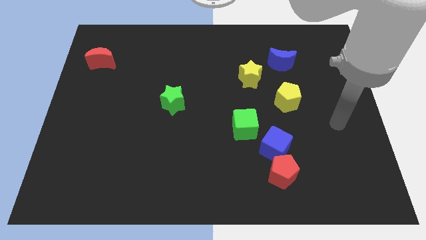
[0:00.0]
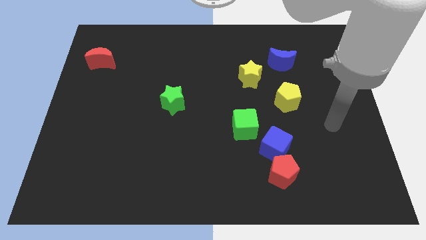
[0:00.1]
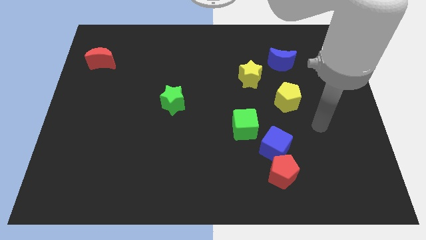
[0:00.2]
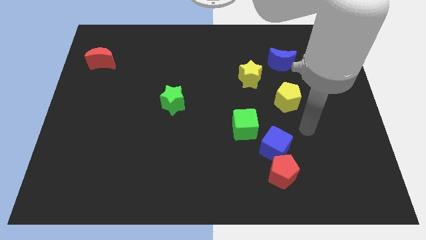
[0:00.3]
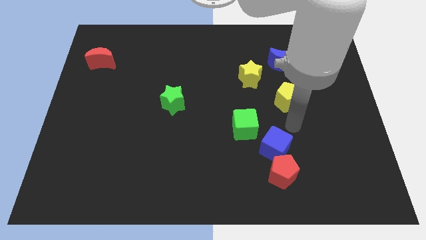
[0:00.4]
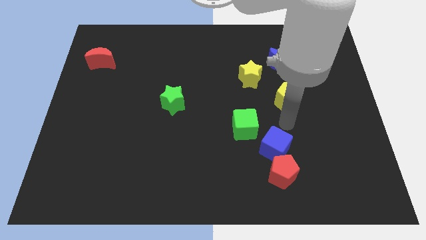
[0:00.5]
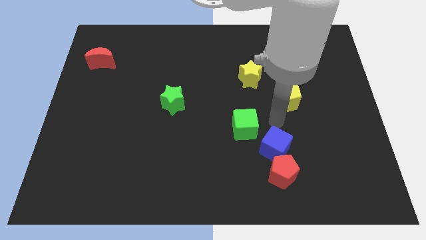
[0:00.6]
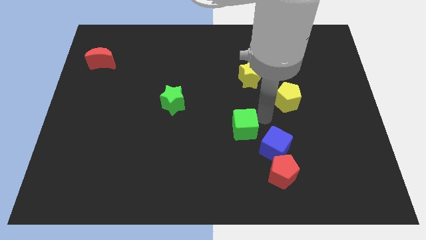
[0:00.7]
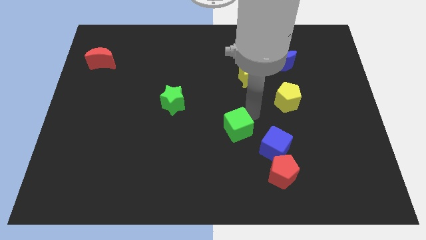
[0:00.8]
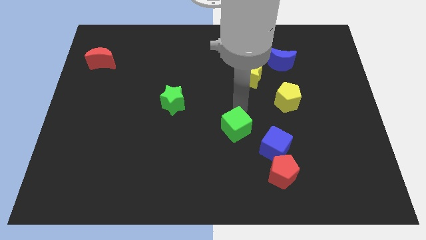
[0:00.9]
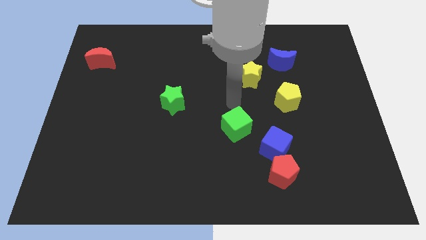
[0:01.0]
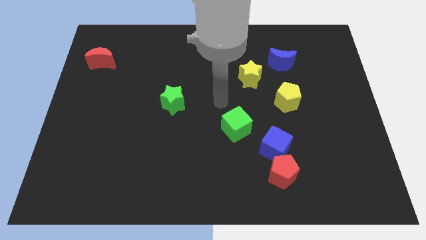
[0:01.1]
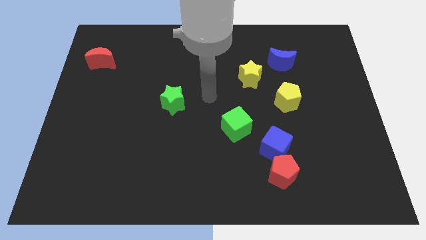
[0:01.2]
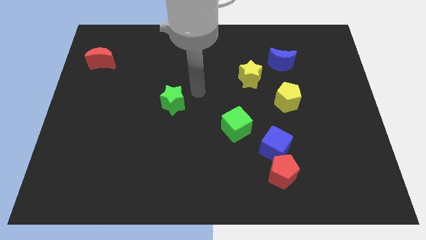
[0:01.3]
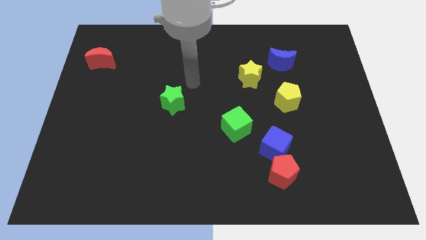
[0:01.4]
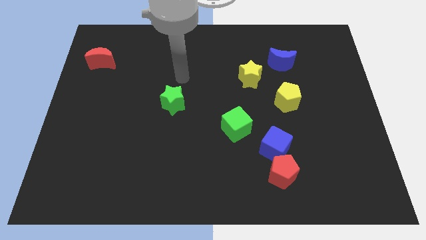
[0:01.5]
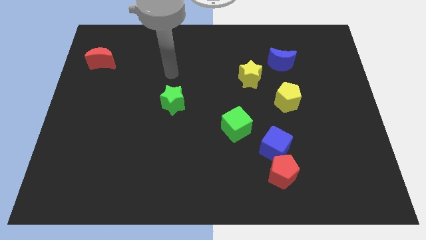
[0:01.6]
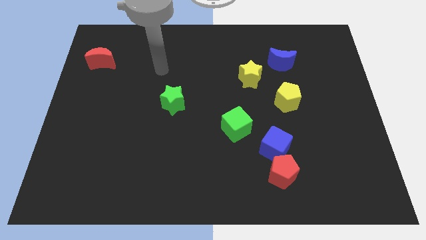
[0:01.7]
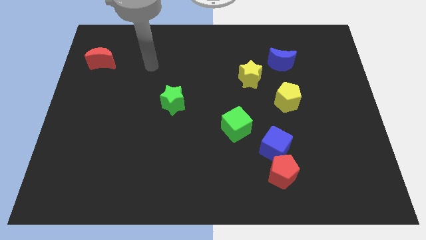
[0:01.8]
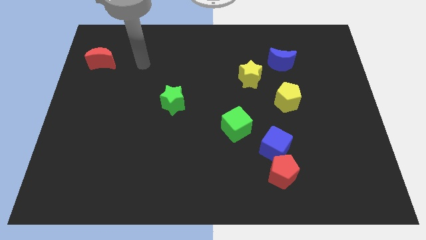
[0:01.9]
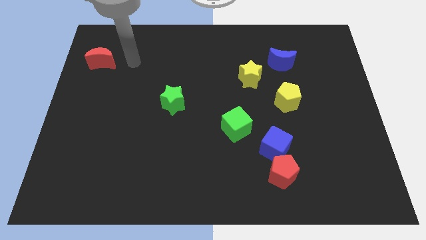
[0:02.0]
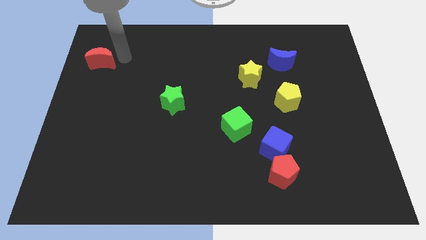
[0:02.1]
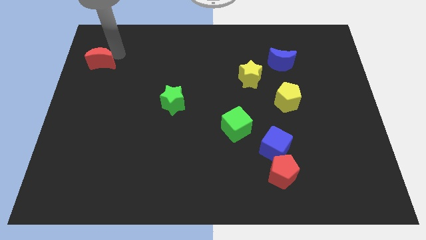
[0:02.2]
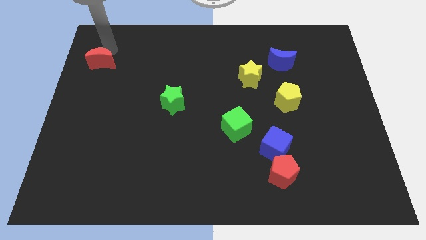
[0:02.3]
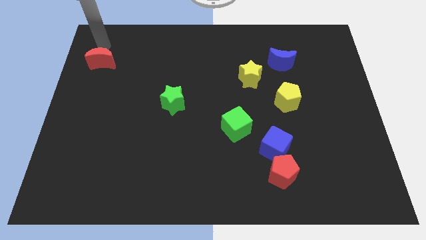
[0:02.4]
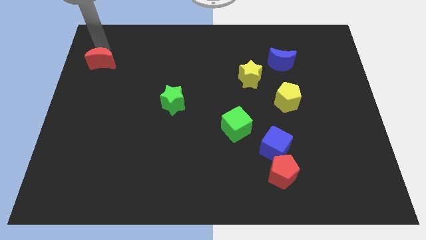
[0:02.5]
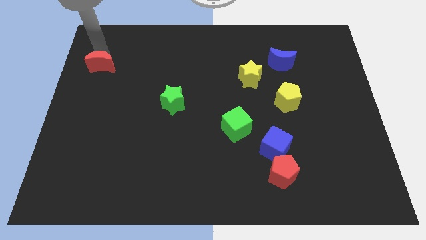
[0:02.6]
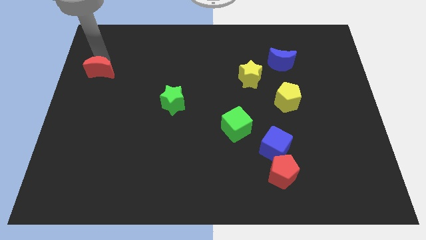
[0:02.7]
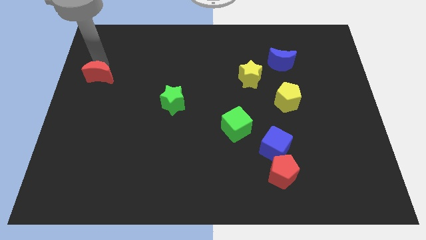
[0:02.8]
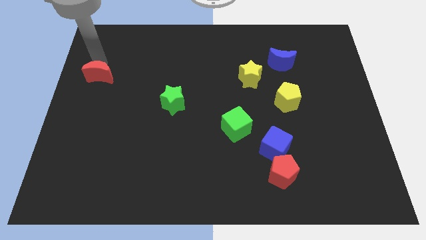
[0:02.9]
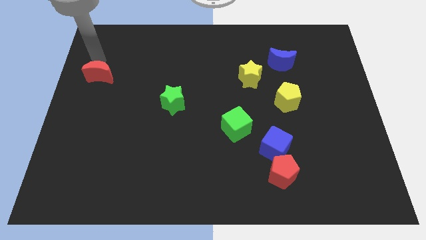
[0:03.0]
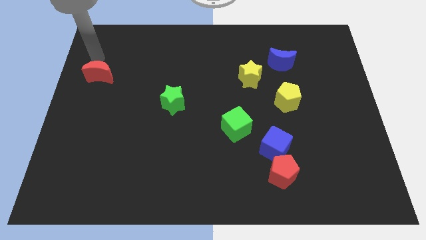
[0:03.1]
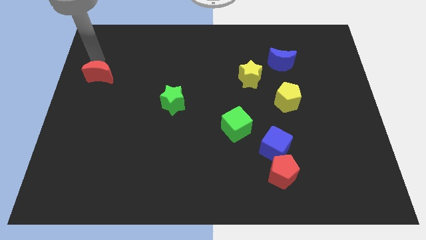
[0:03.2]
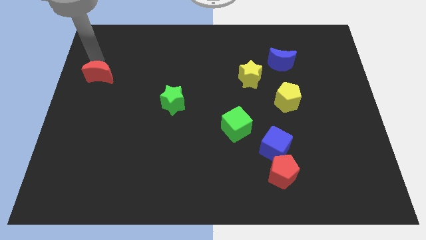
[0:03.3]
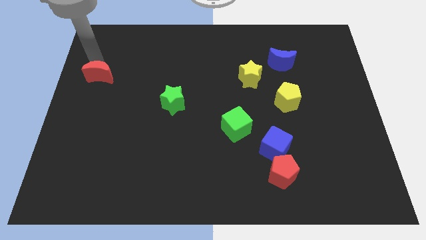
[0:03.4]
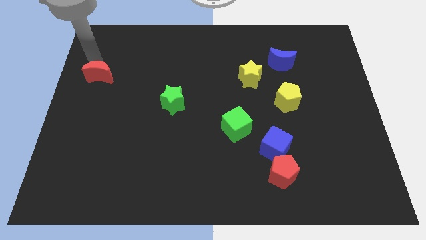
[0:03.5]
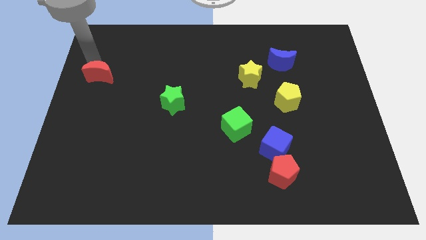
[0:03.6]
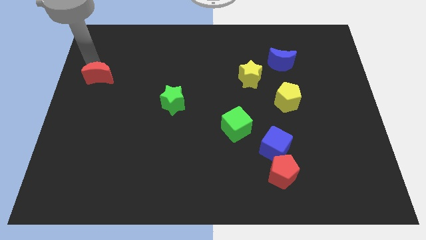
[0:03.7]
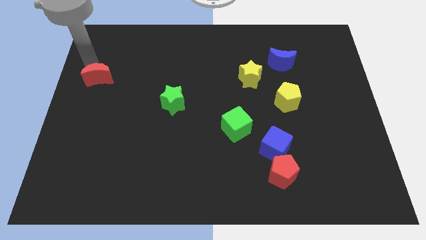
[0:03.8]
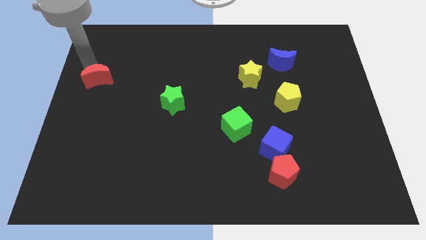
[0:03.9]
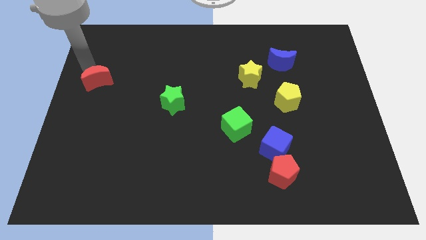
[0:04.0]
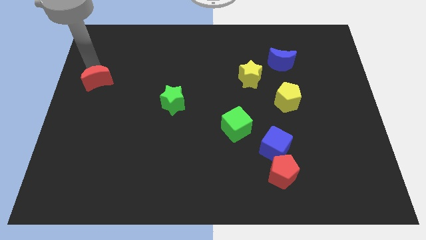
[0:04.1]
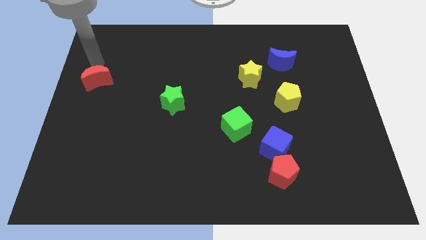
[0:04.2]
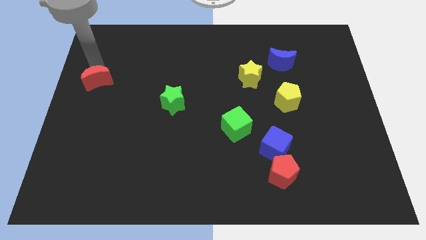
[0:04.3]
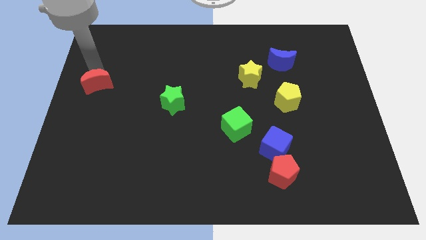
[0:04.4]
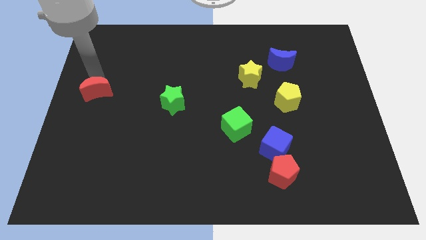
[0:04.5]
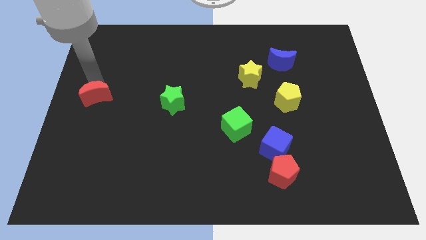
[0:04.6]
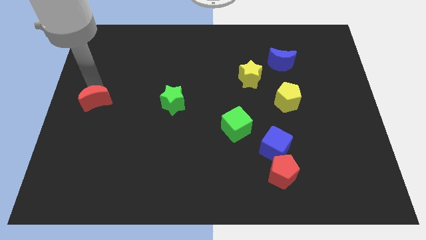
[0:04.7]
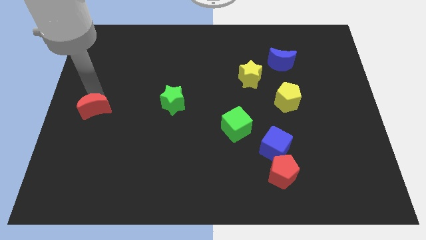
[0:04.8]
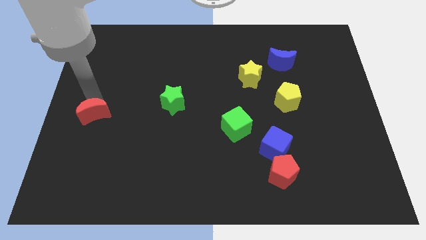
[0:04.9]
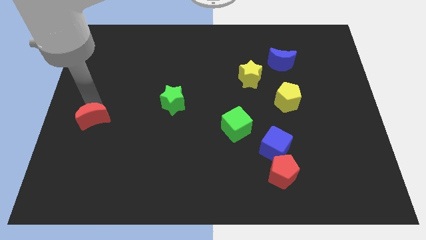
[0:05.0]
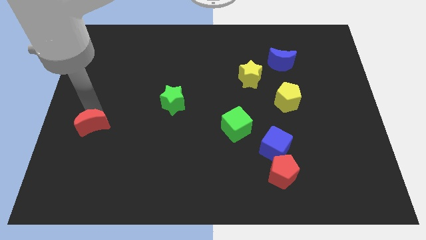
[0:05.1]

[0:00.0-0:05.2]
move the red moon down

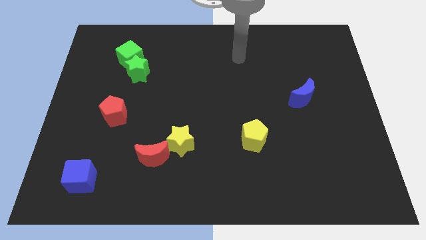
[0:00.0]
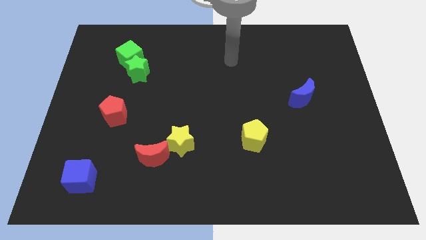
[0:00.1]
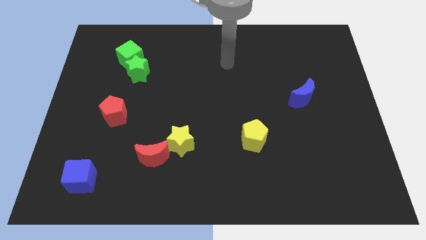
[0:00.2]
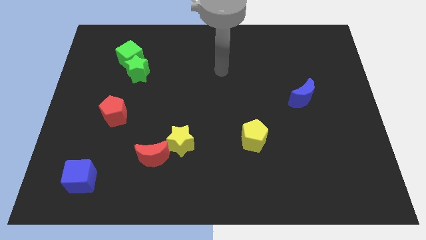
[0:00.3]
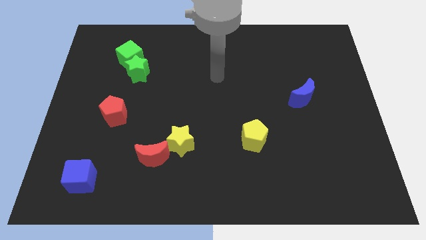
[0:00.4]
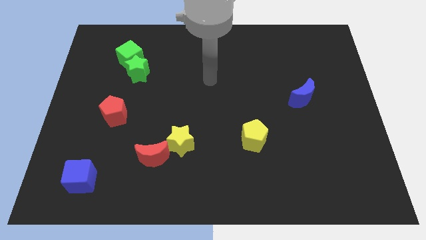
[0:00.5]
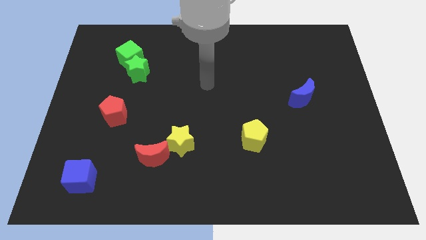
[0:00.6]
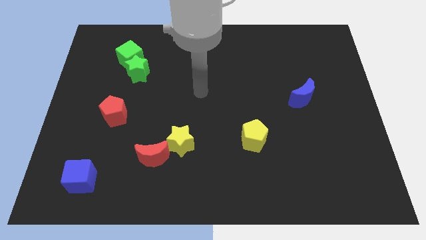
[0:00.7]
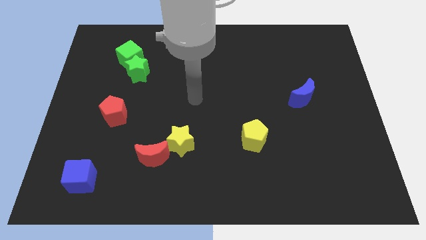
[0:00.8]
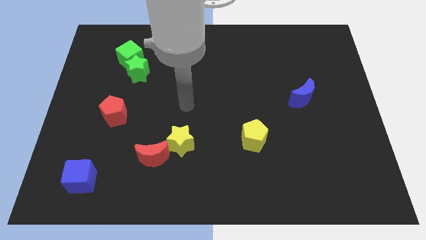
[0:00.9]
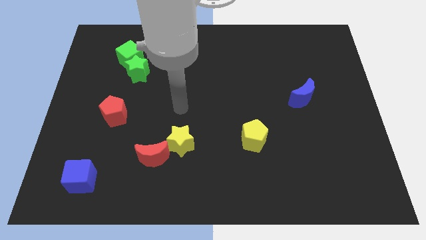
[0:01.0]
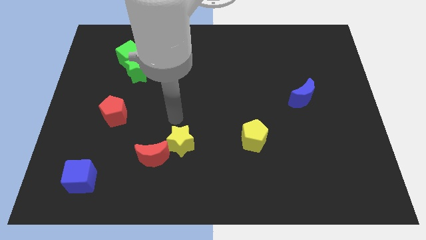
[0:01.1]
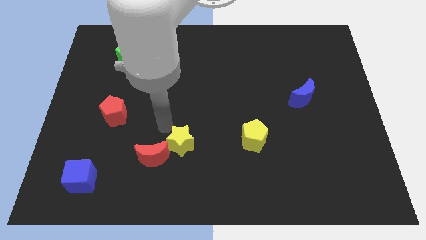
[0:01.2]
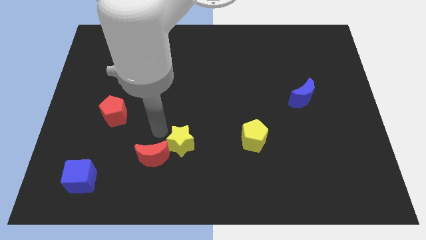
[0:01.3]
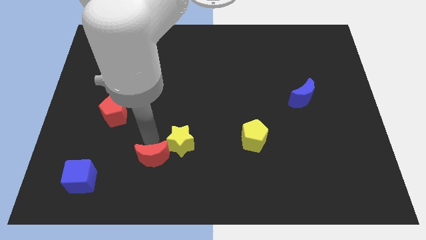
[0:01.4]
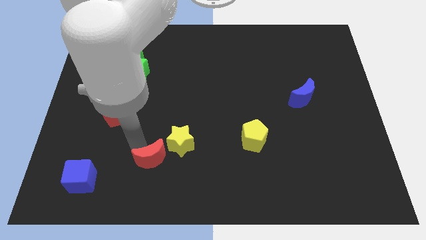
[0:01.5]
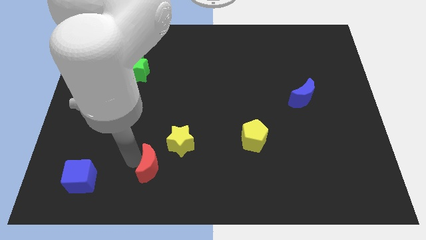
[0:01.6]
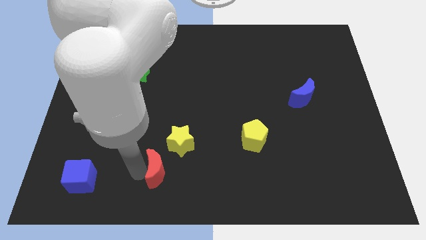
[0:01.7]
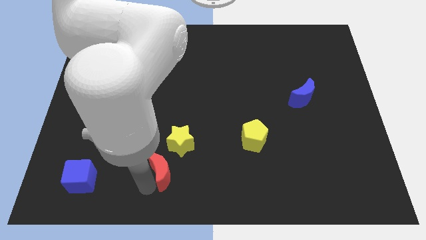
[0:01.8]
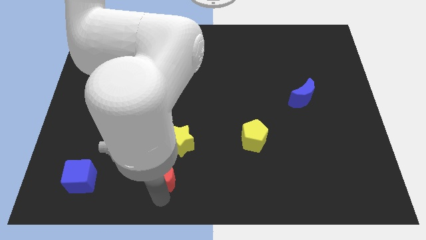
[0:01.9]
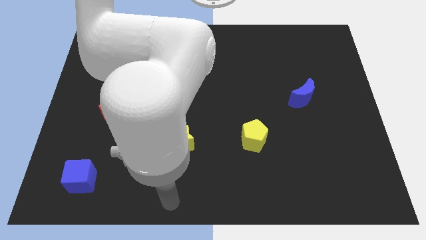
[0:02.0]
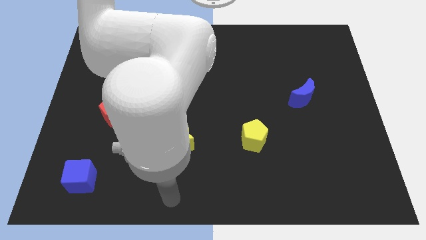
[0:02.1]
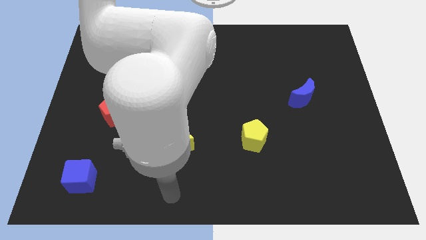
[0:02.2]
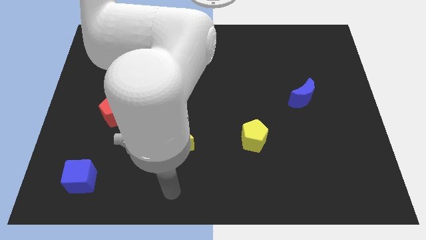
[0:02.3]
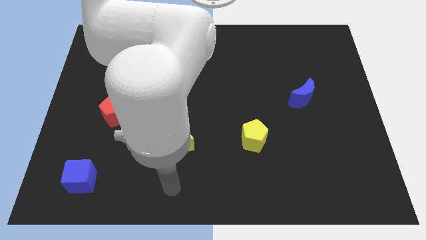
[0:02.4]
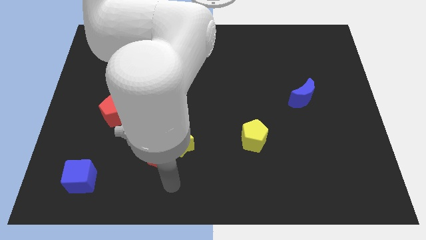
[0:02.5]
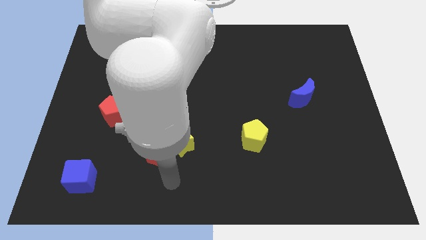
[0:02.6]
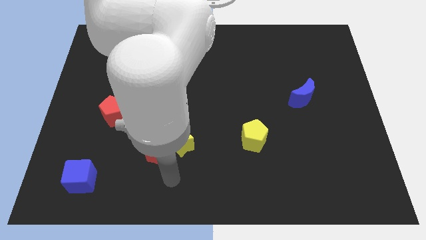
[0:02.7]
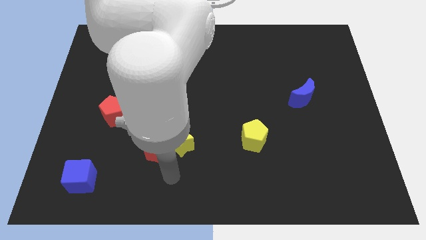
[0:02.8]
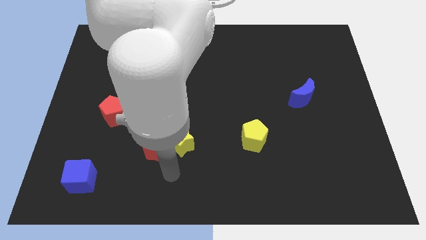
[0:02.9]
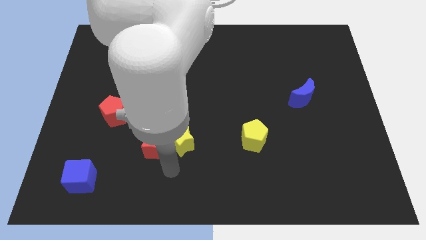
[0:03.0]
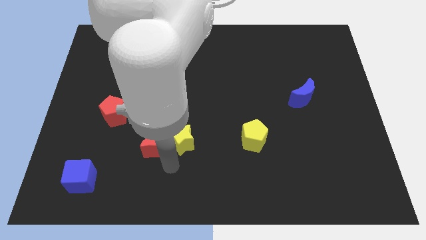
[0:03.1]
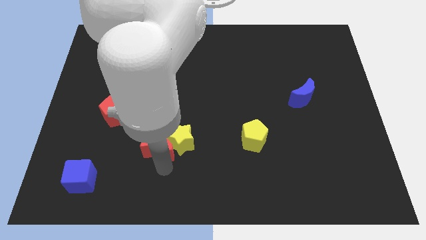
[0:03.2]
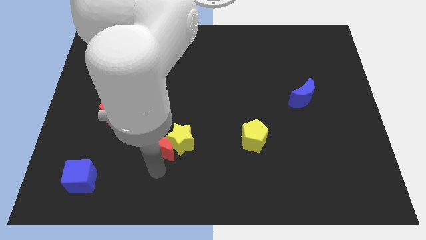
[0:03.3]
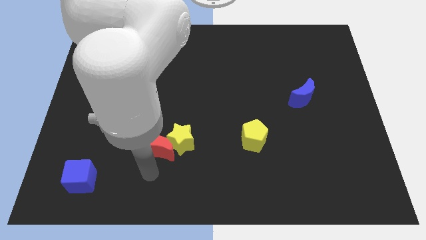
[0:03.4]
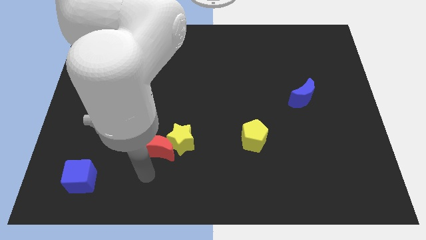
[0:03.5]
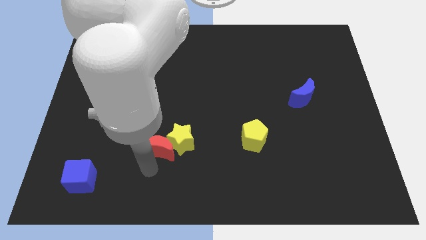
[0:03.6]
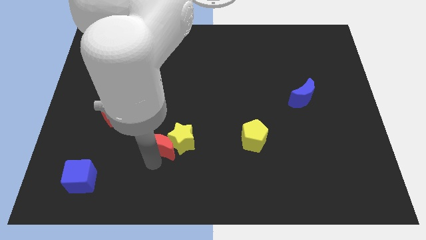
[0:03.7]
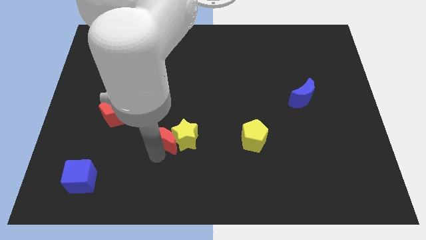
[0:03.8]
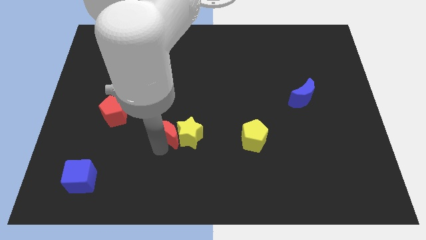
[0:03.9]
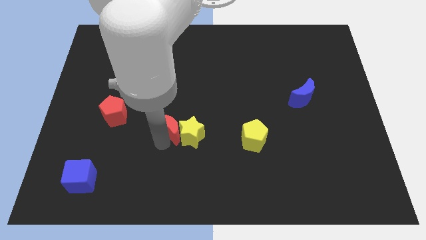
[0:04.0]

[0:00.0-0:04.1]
move the red moon upwards and to the right a bit
